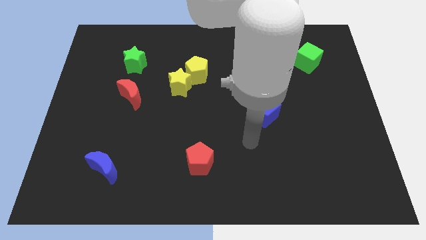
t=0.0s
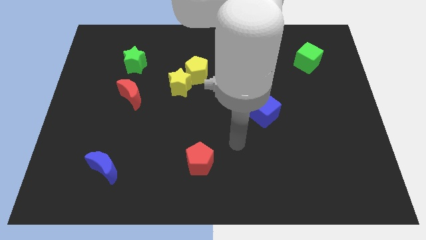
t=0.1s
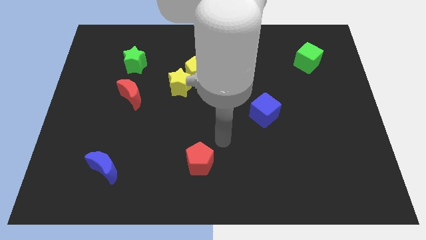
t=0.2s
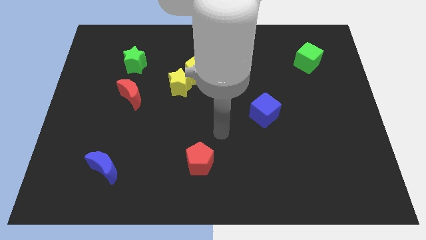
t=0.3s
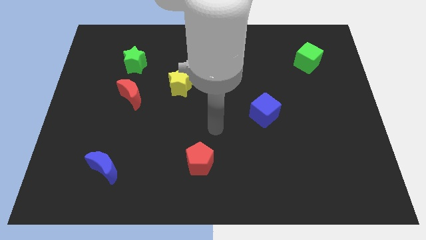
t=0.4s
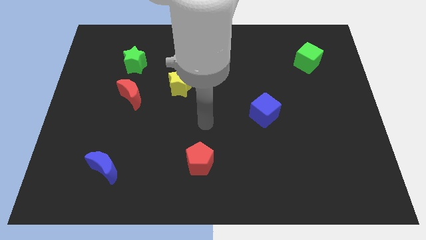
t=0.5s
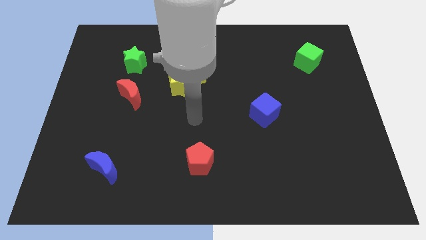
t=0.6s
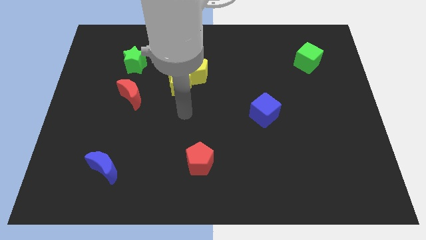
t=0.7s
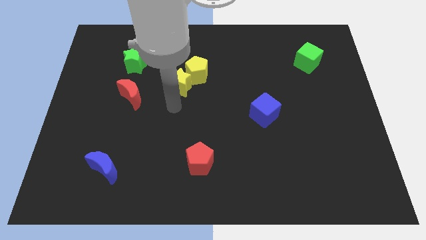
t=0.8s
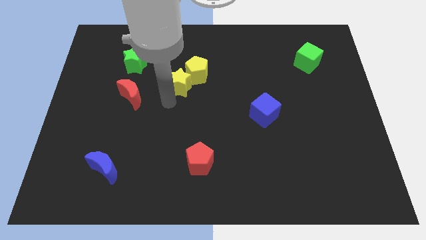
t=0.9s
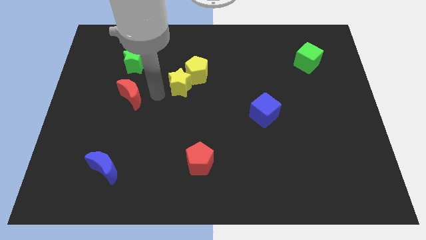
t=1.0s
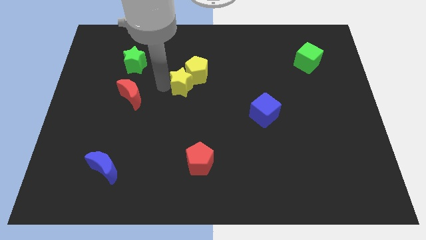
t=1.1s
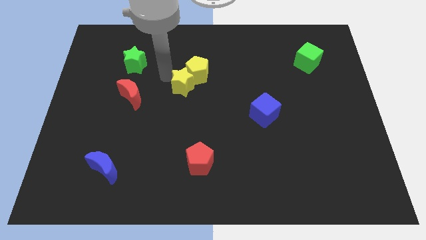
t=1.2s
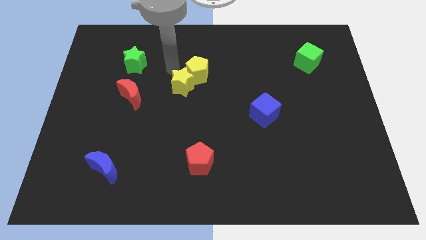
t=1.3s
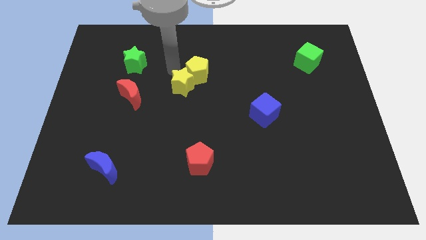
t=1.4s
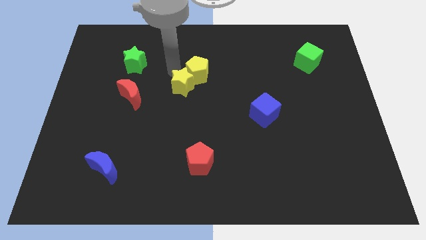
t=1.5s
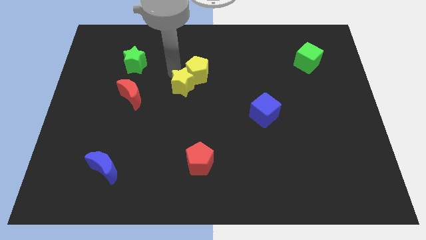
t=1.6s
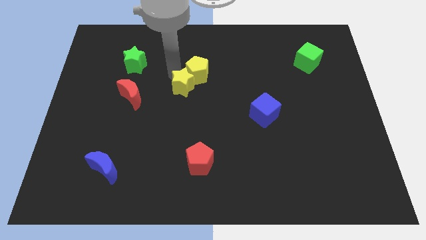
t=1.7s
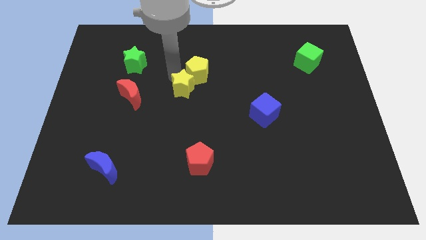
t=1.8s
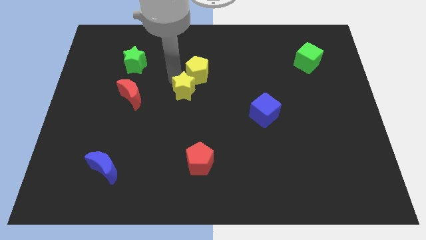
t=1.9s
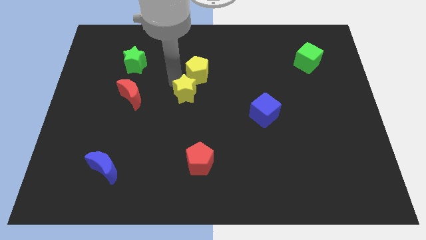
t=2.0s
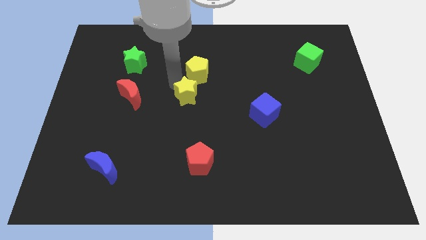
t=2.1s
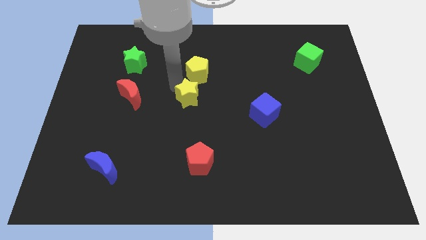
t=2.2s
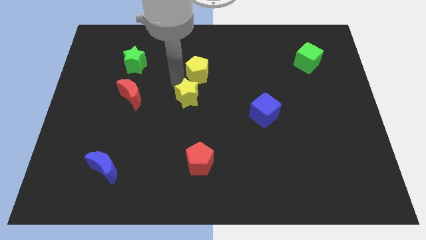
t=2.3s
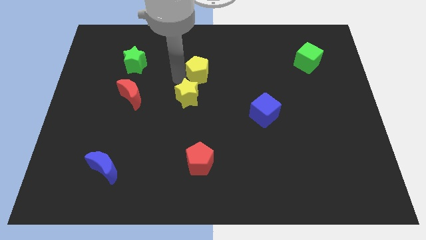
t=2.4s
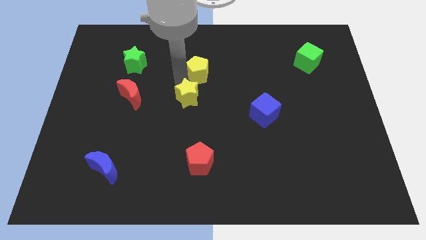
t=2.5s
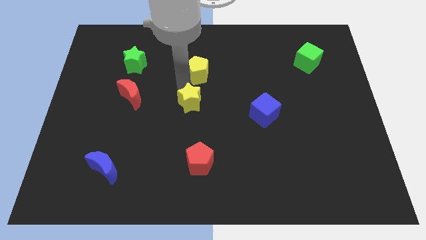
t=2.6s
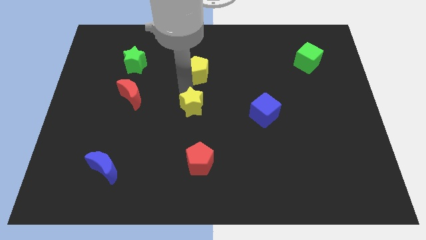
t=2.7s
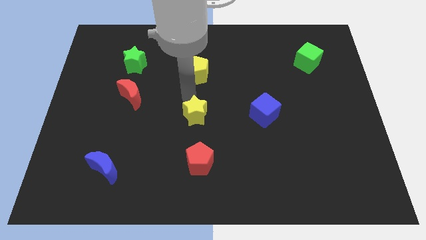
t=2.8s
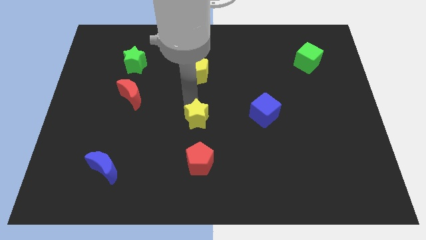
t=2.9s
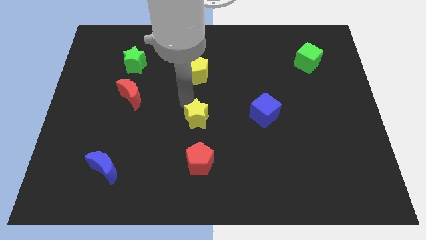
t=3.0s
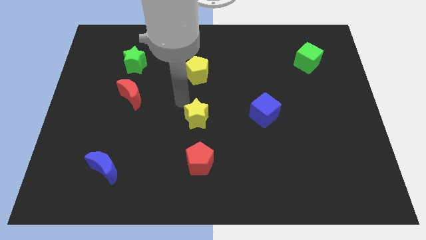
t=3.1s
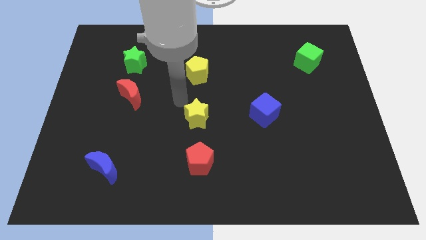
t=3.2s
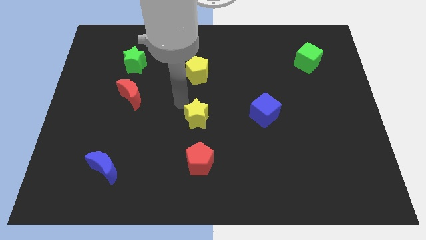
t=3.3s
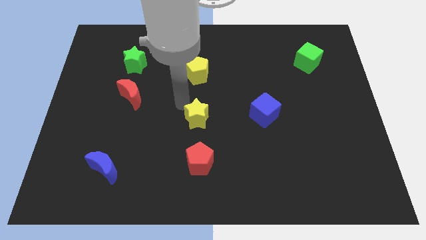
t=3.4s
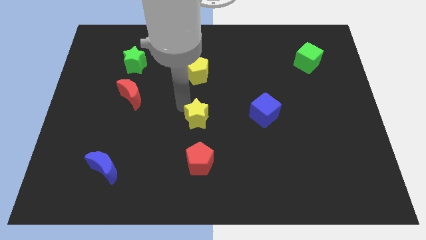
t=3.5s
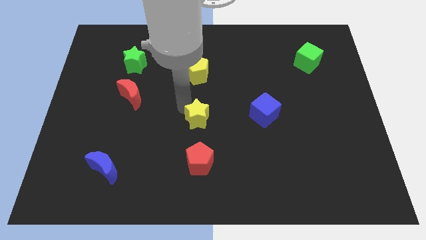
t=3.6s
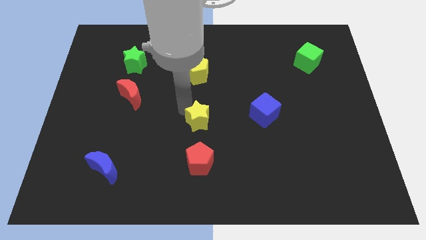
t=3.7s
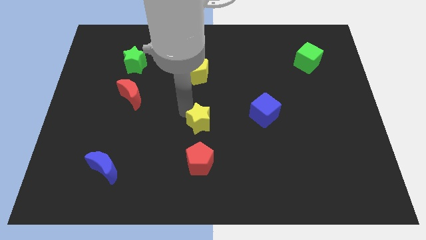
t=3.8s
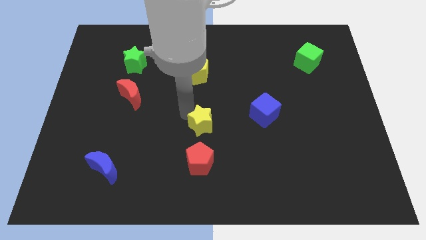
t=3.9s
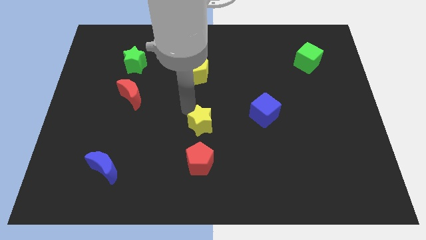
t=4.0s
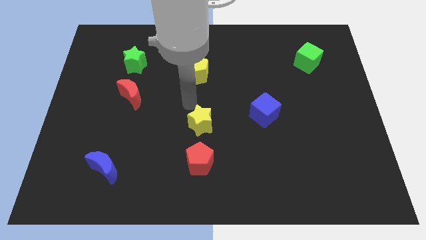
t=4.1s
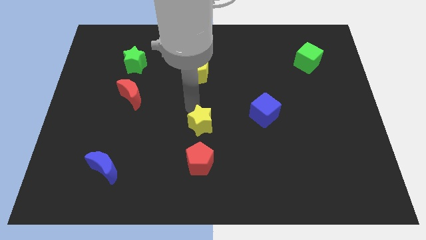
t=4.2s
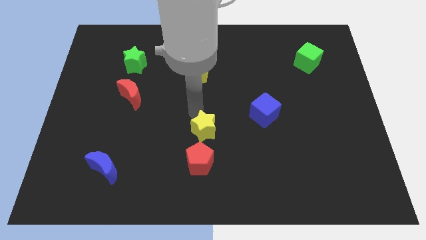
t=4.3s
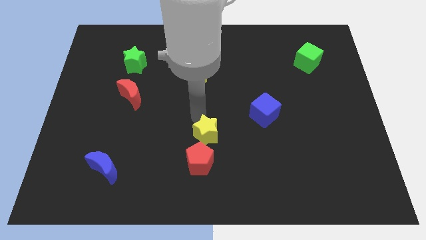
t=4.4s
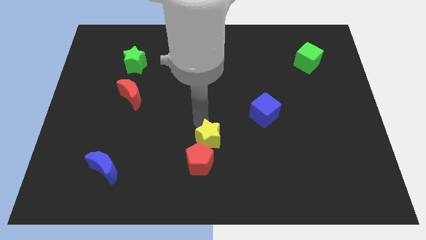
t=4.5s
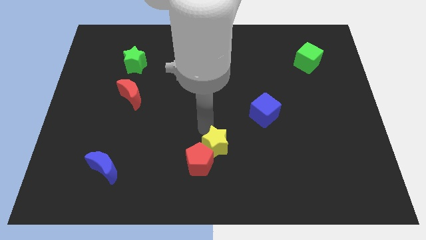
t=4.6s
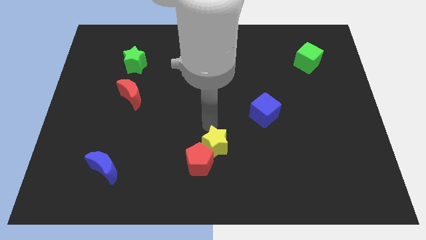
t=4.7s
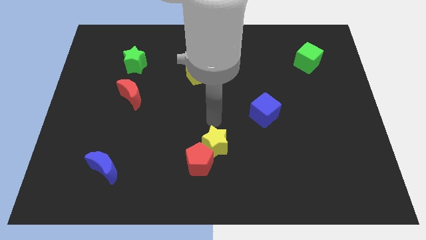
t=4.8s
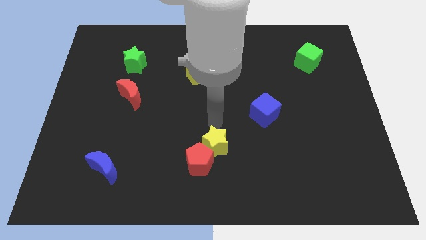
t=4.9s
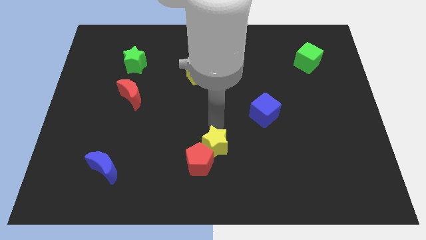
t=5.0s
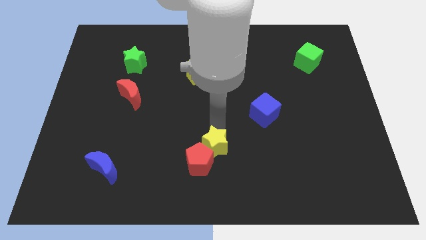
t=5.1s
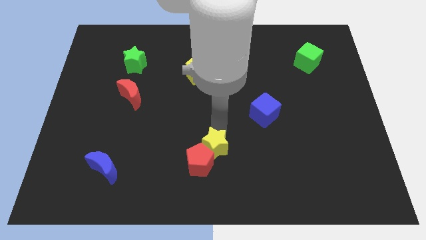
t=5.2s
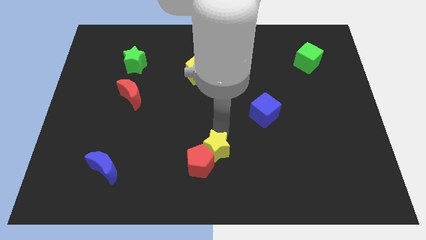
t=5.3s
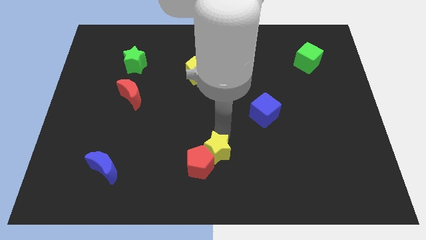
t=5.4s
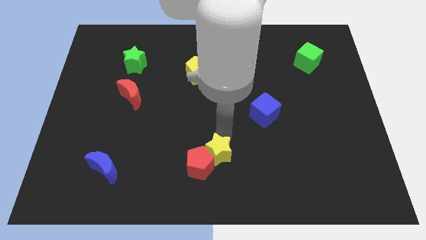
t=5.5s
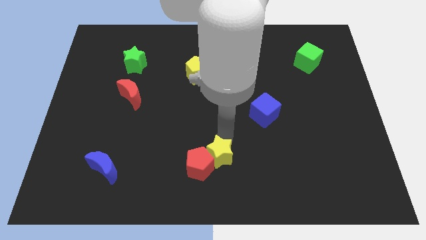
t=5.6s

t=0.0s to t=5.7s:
slide the yellow star to the bottom

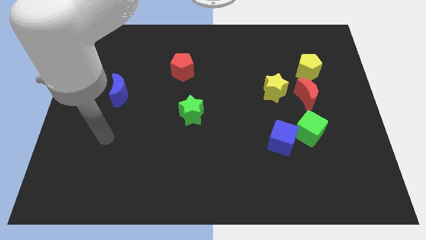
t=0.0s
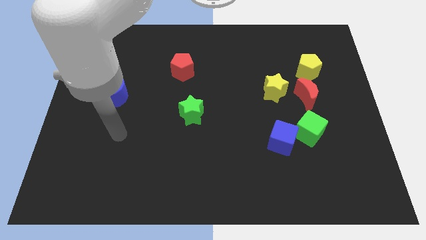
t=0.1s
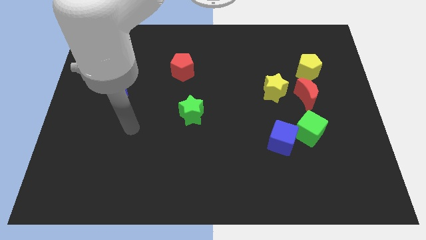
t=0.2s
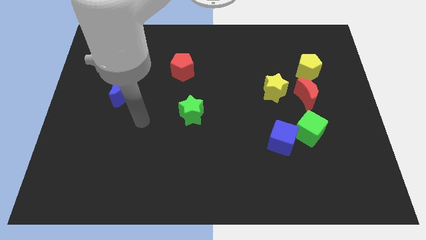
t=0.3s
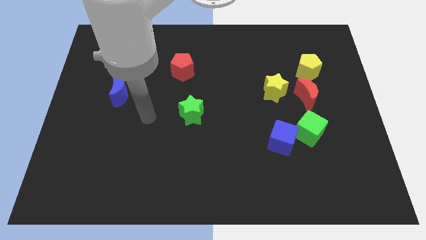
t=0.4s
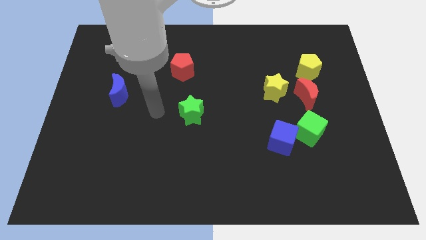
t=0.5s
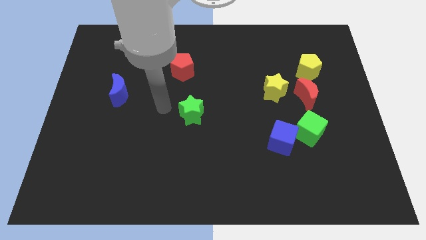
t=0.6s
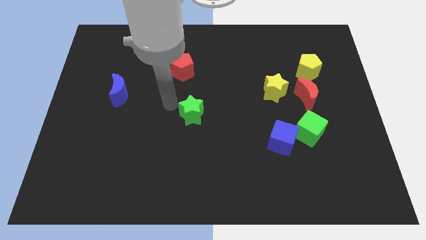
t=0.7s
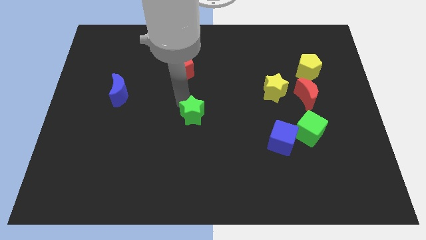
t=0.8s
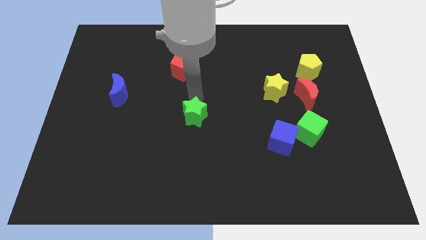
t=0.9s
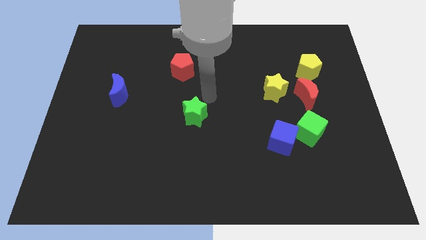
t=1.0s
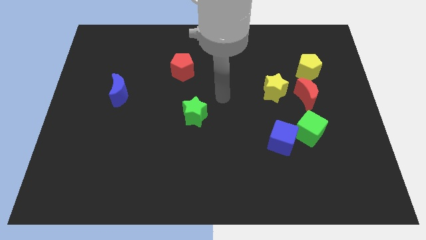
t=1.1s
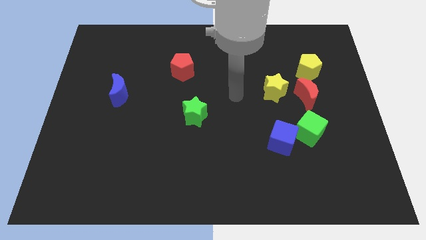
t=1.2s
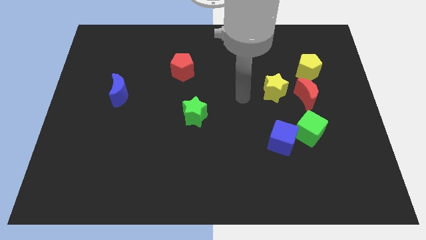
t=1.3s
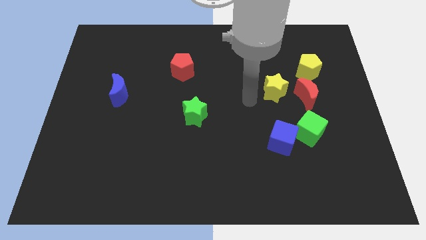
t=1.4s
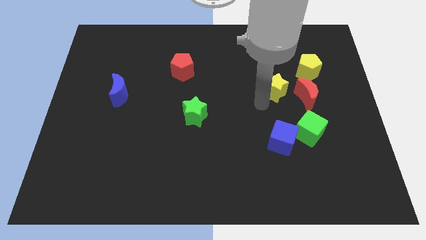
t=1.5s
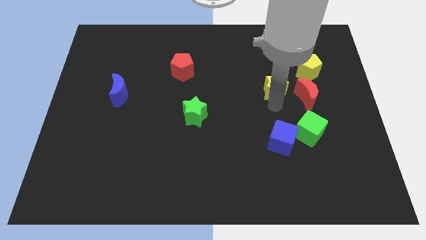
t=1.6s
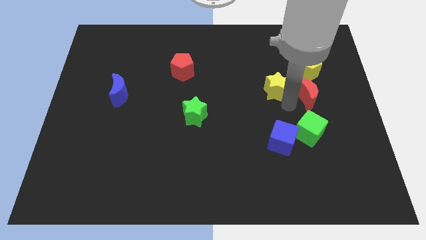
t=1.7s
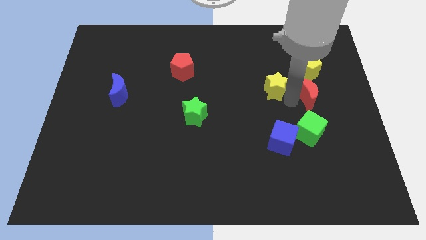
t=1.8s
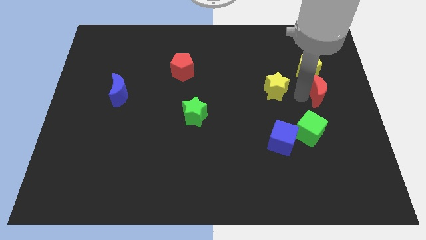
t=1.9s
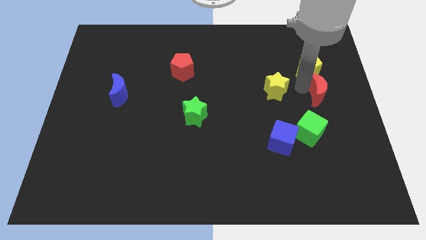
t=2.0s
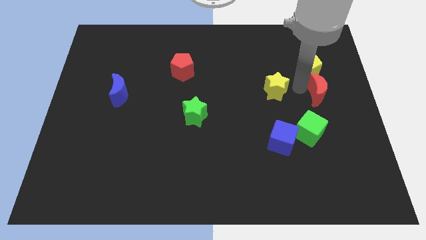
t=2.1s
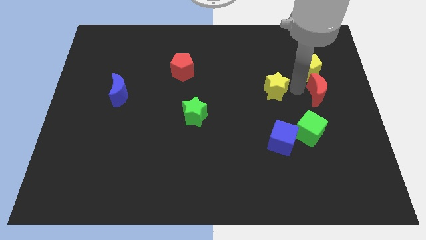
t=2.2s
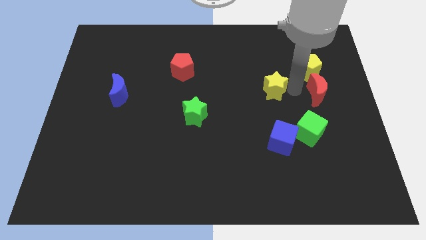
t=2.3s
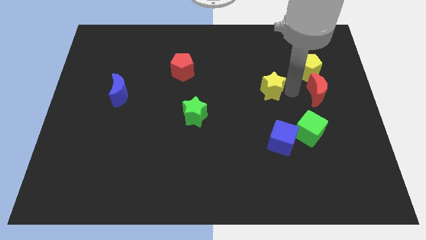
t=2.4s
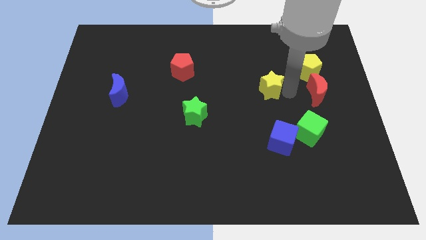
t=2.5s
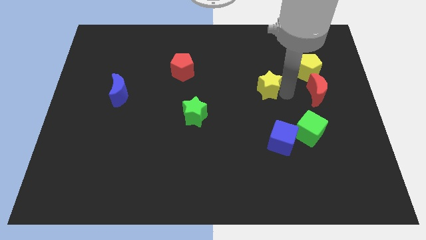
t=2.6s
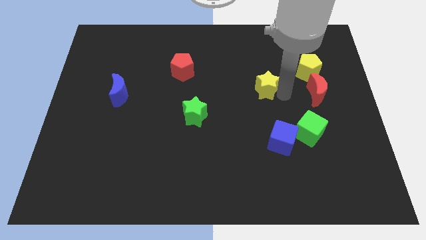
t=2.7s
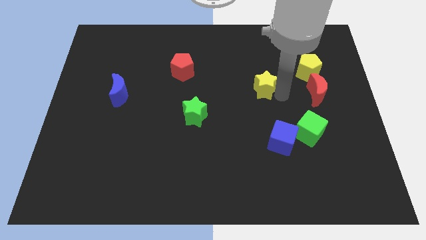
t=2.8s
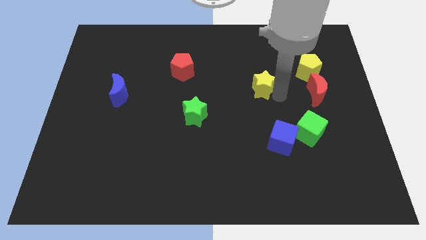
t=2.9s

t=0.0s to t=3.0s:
slide the yellow star to the center
